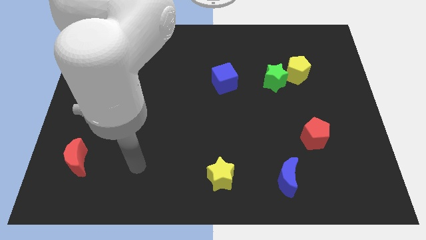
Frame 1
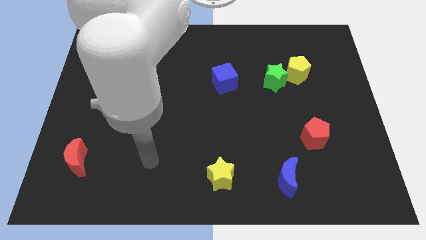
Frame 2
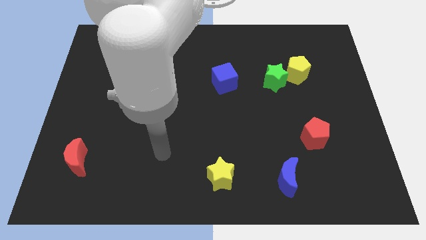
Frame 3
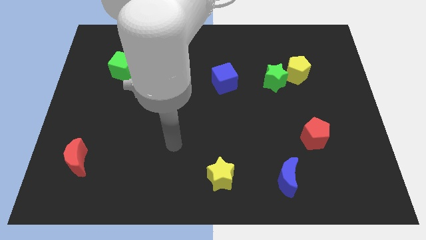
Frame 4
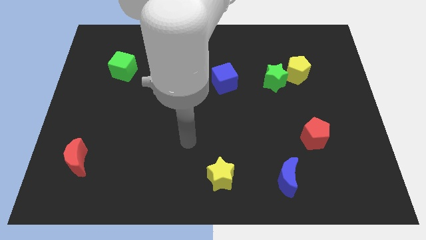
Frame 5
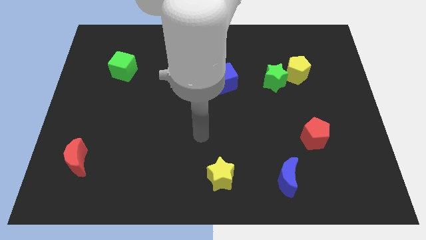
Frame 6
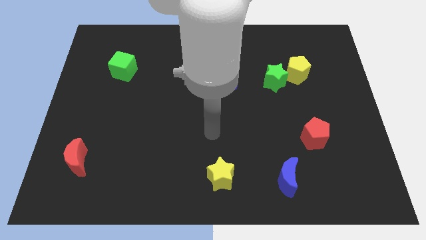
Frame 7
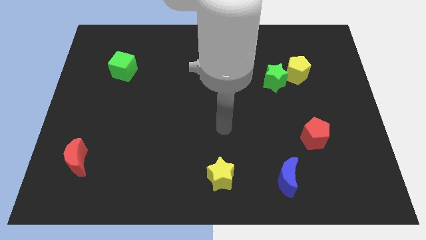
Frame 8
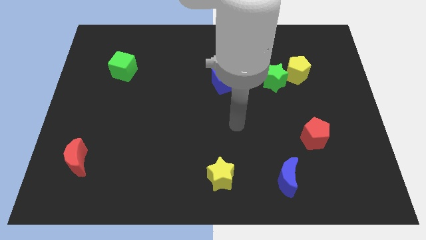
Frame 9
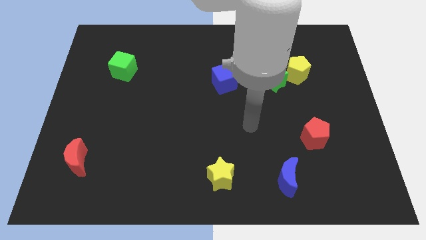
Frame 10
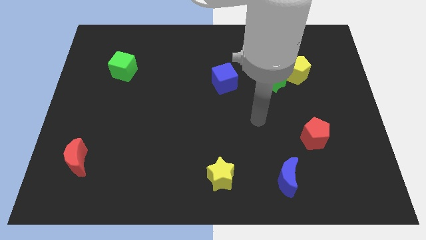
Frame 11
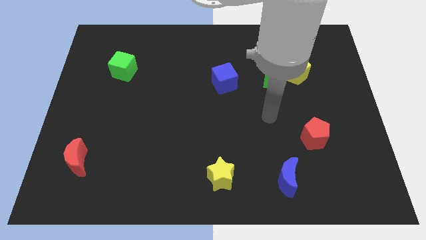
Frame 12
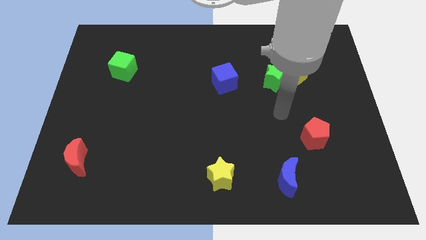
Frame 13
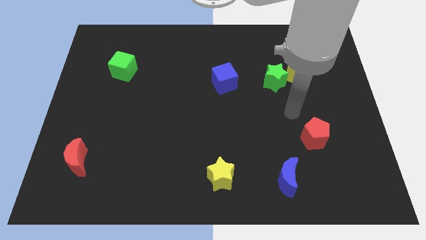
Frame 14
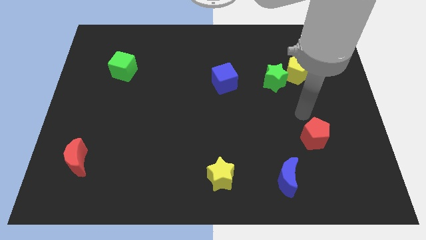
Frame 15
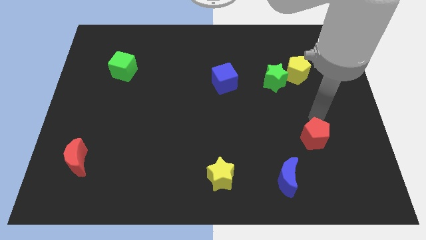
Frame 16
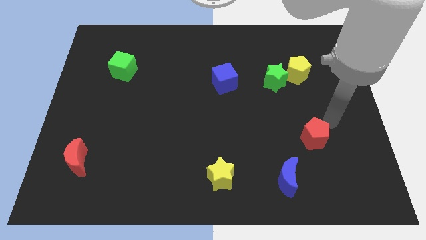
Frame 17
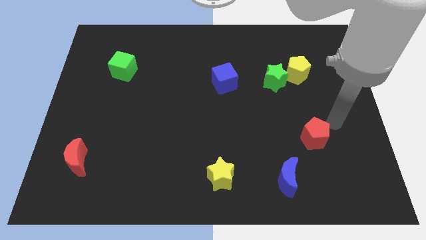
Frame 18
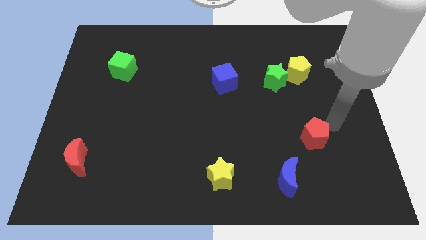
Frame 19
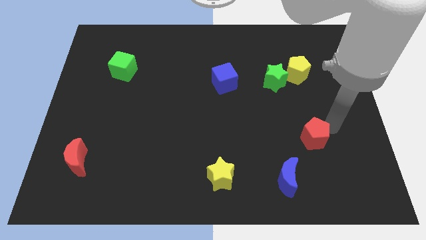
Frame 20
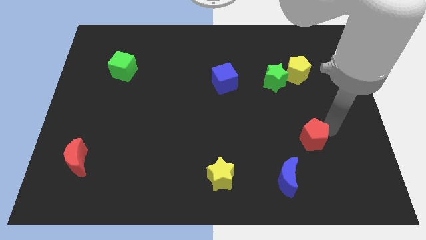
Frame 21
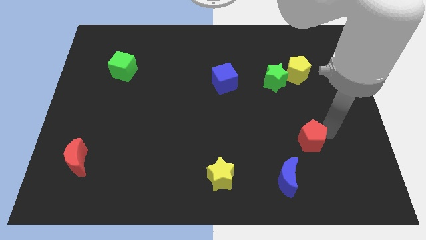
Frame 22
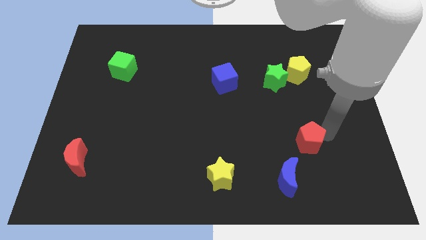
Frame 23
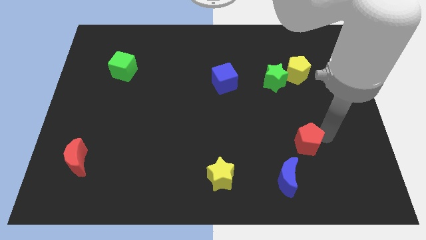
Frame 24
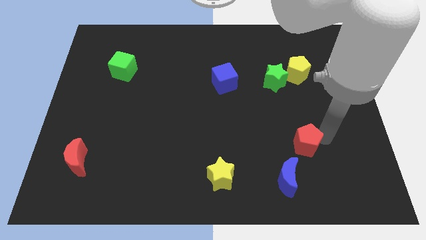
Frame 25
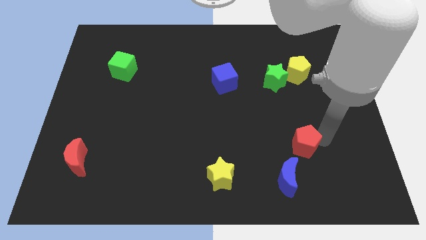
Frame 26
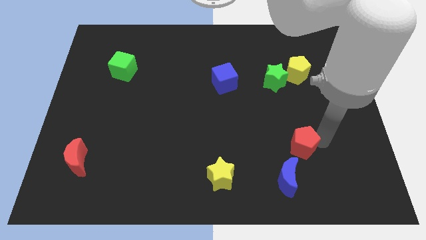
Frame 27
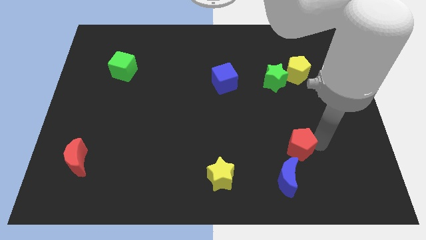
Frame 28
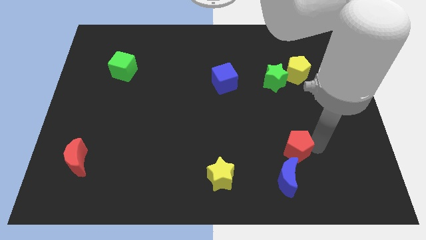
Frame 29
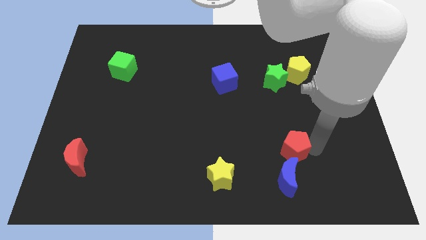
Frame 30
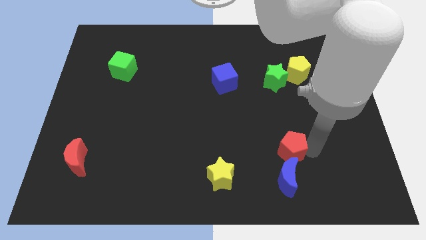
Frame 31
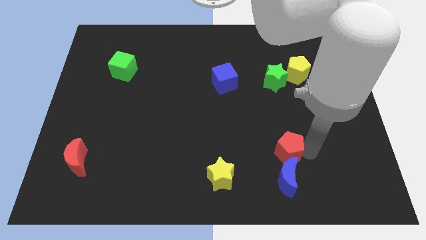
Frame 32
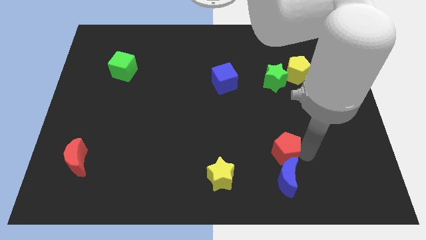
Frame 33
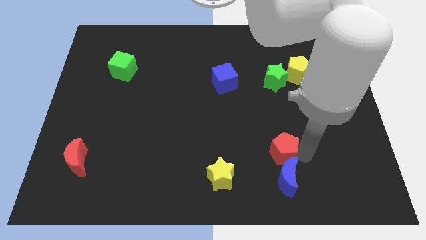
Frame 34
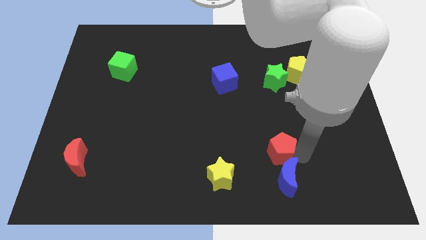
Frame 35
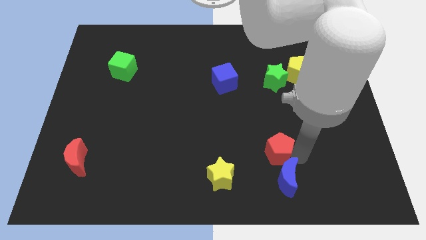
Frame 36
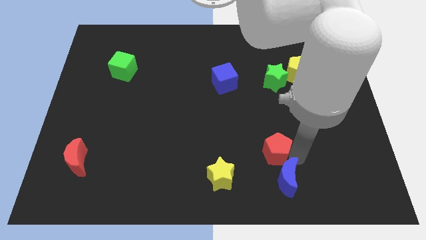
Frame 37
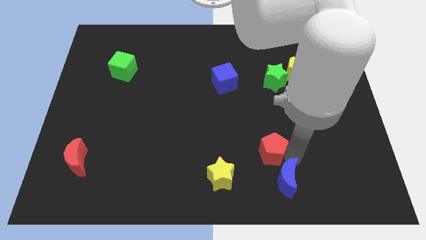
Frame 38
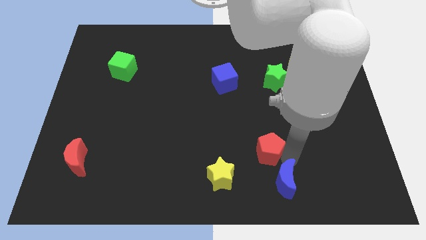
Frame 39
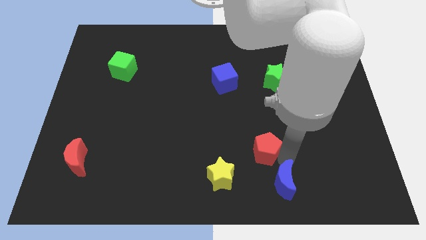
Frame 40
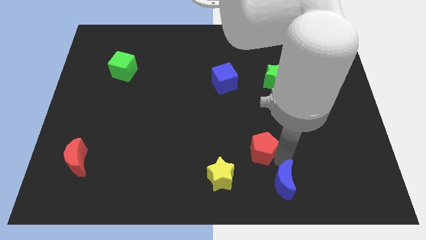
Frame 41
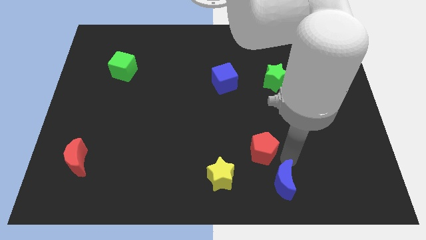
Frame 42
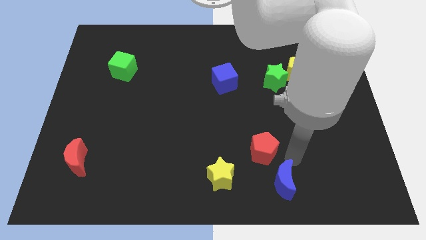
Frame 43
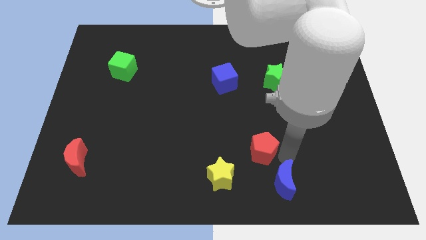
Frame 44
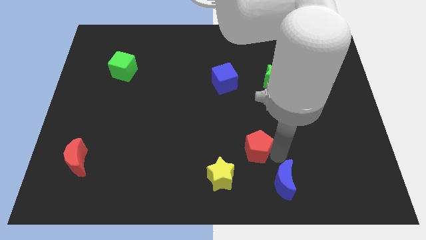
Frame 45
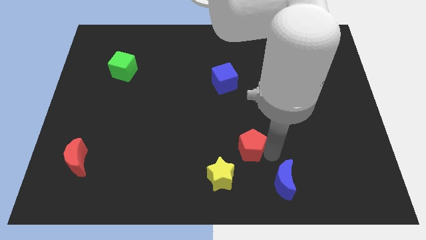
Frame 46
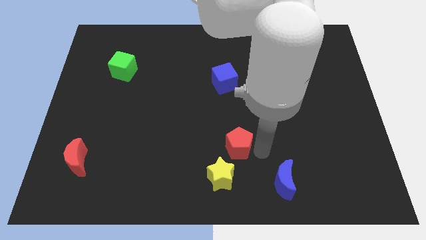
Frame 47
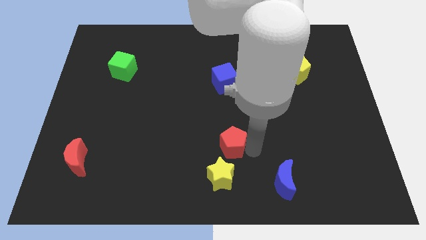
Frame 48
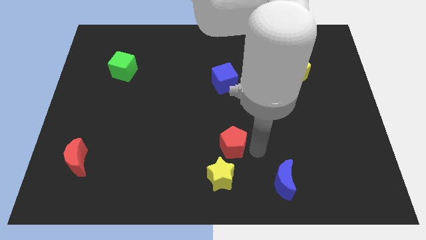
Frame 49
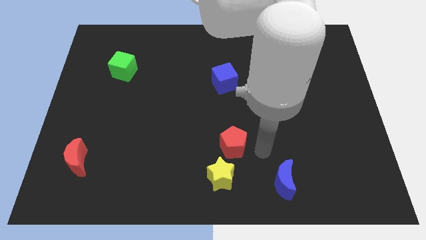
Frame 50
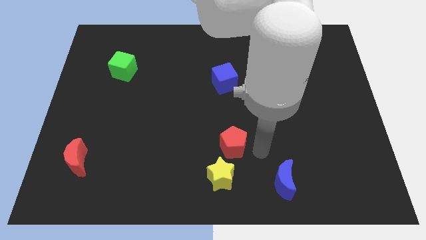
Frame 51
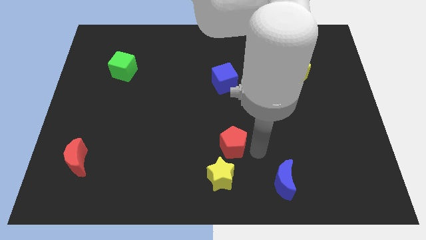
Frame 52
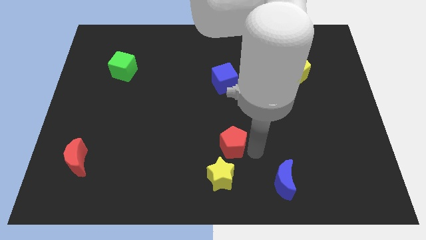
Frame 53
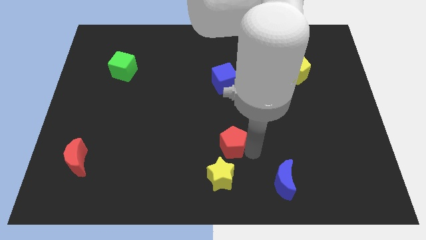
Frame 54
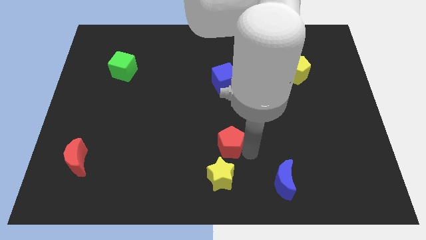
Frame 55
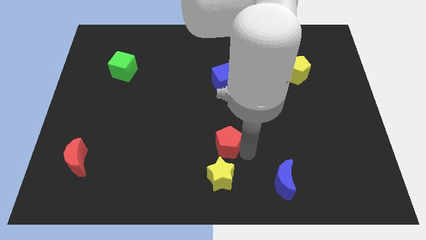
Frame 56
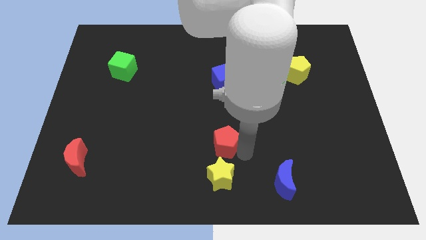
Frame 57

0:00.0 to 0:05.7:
slide the red pentagon left

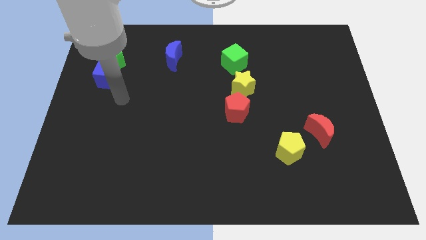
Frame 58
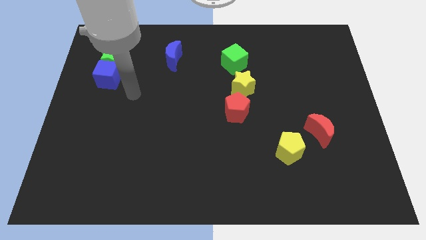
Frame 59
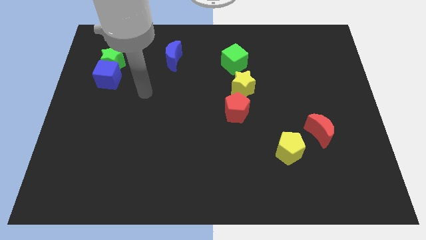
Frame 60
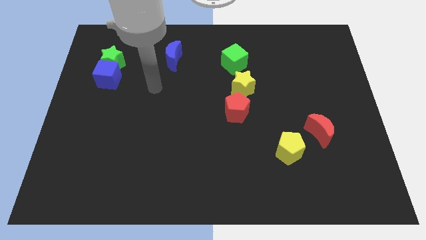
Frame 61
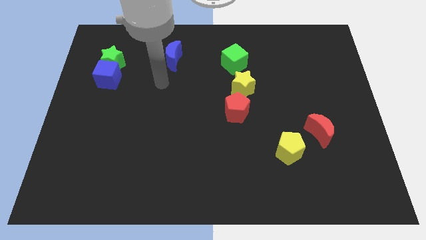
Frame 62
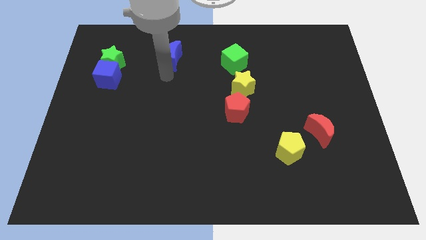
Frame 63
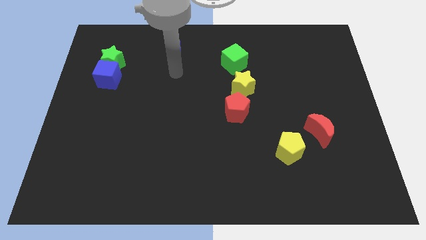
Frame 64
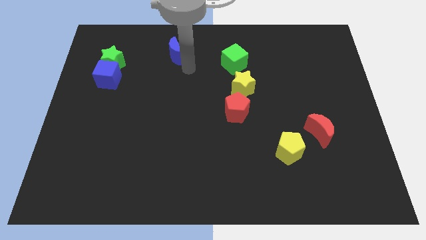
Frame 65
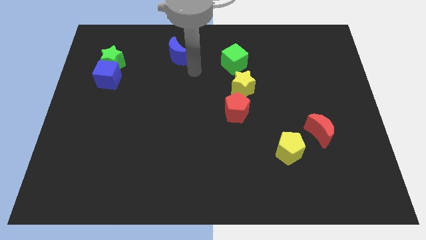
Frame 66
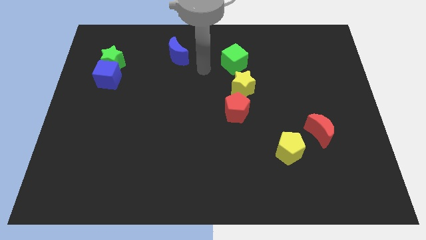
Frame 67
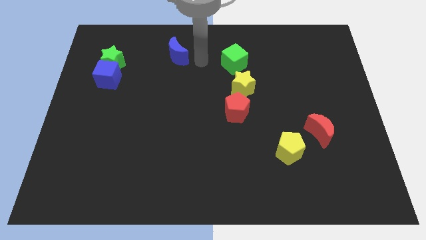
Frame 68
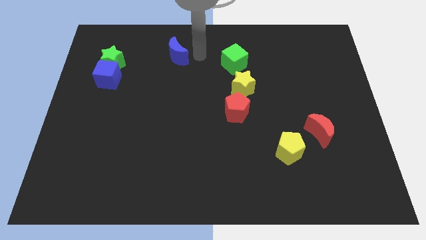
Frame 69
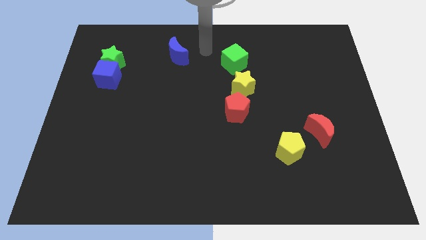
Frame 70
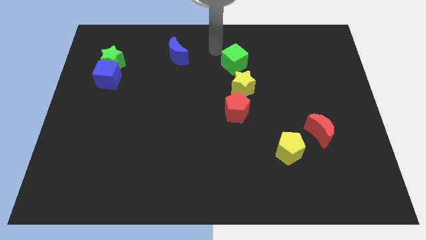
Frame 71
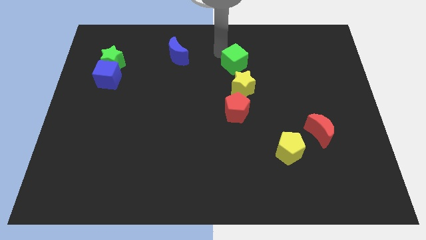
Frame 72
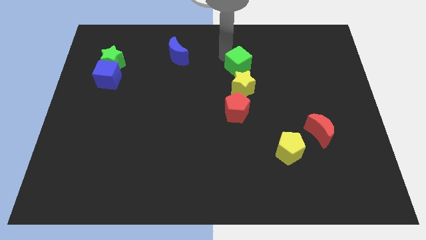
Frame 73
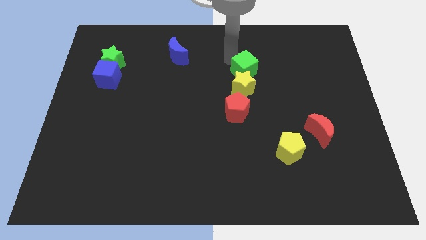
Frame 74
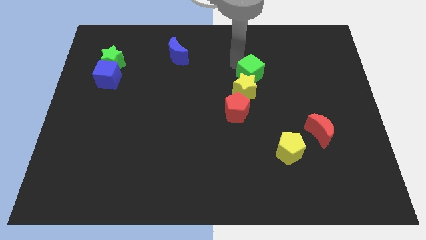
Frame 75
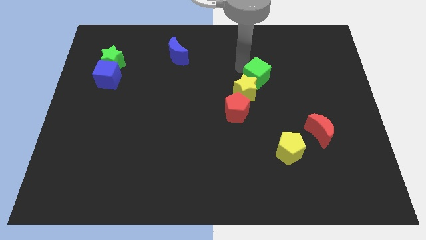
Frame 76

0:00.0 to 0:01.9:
push the green cube a bit diagonally down and to the right

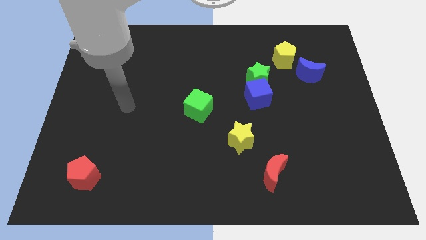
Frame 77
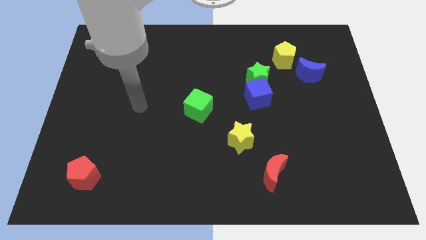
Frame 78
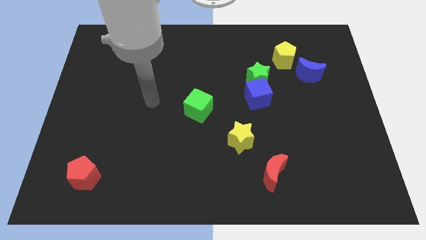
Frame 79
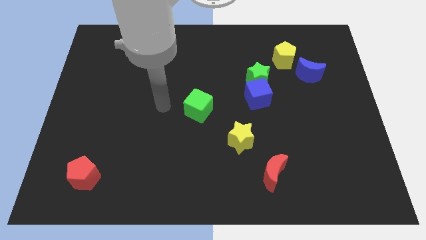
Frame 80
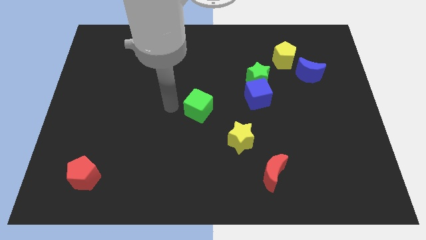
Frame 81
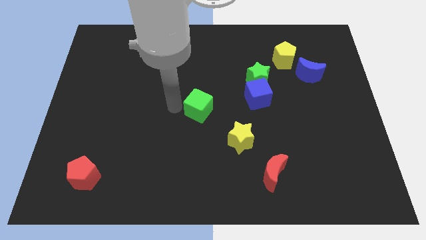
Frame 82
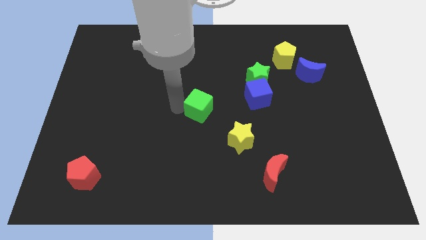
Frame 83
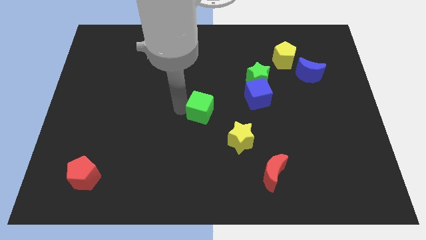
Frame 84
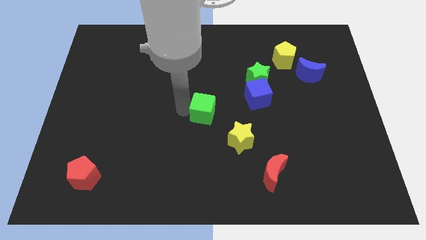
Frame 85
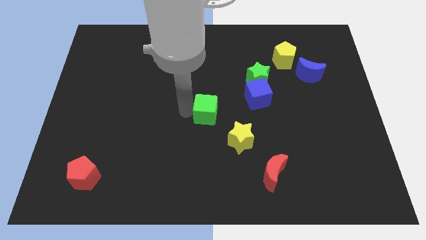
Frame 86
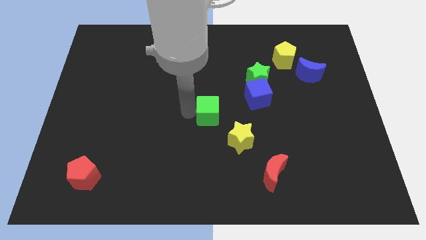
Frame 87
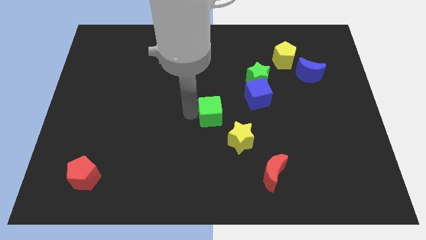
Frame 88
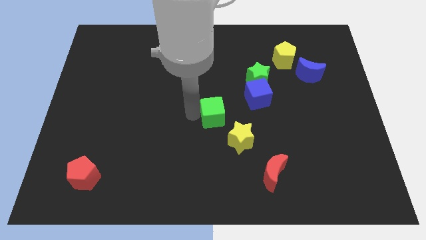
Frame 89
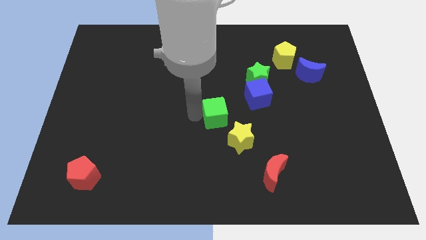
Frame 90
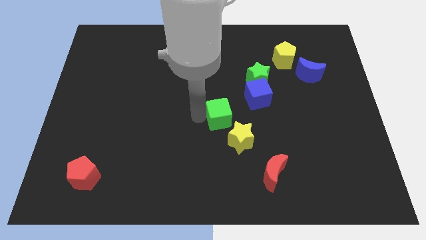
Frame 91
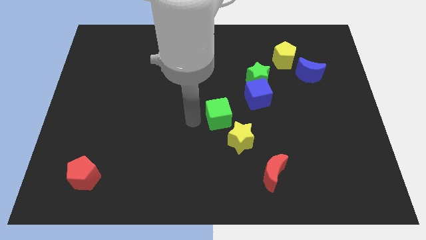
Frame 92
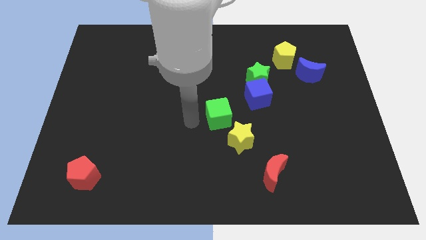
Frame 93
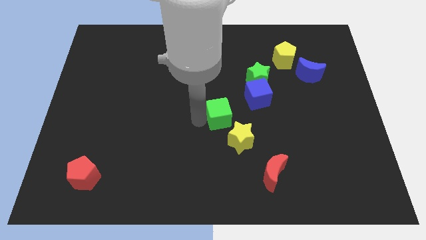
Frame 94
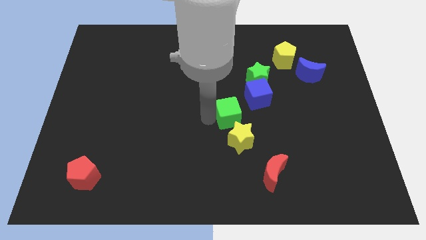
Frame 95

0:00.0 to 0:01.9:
slightly slide the green cube to the right
